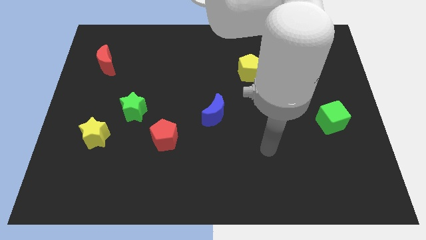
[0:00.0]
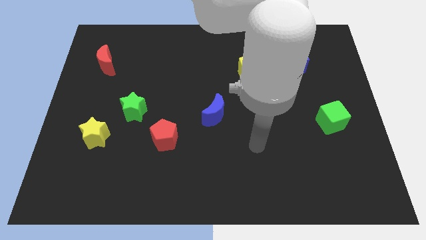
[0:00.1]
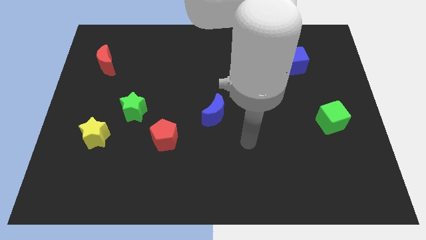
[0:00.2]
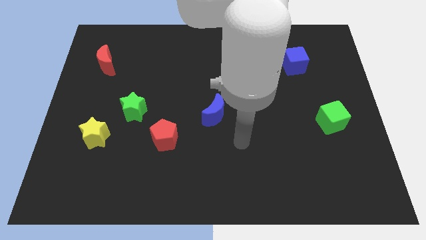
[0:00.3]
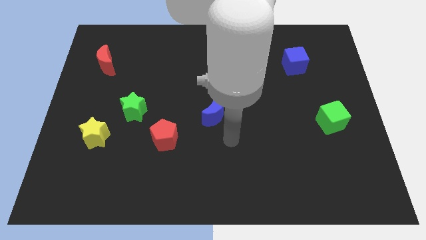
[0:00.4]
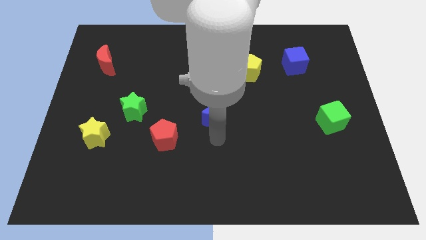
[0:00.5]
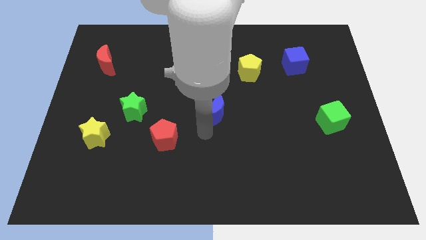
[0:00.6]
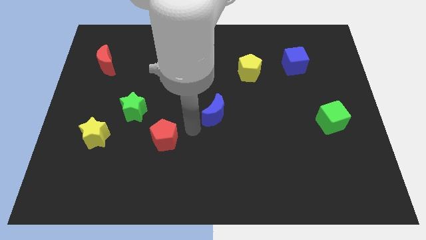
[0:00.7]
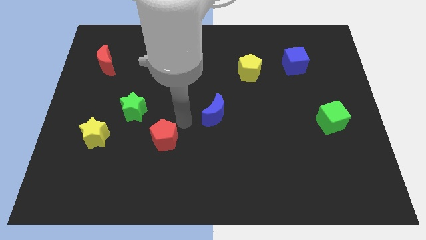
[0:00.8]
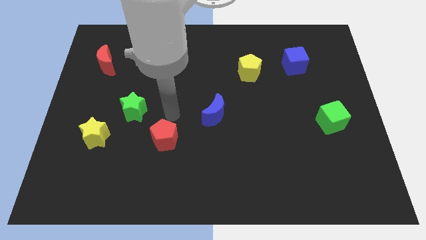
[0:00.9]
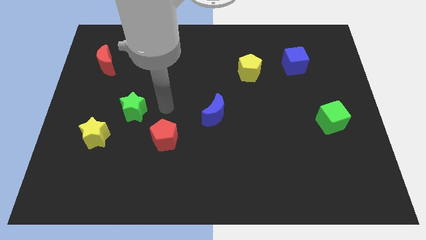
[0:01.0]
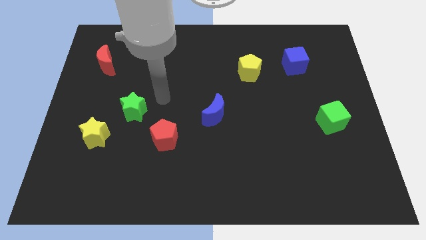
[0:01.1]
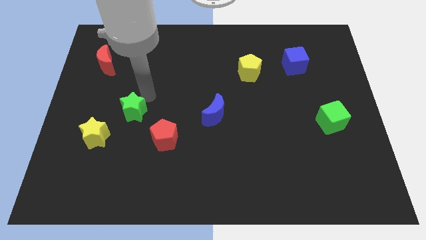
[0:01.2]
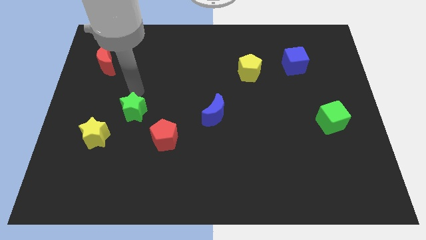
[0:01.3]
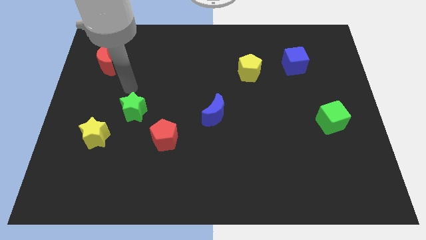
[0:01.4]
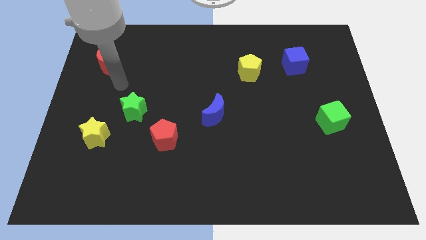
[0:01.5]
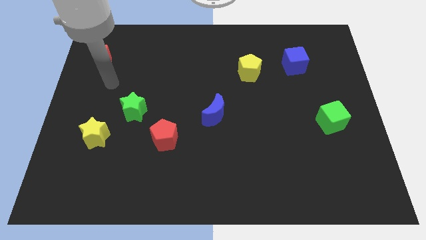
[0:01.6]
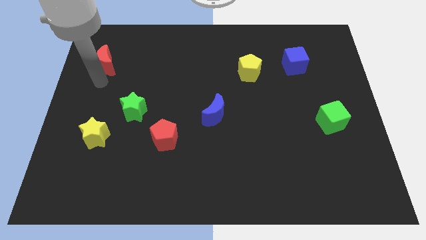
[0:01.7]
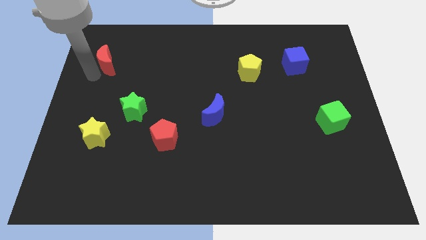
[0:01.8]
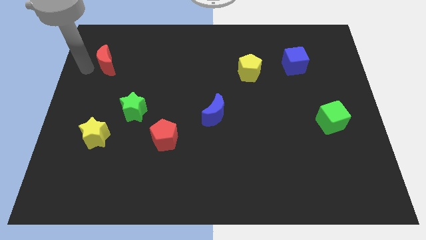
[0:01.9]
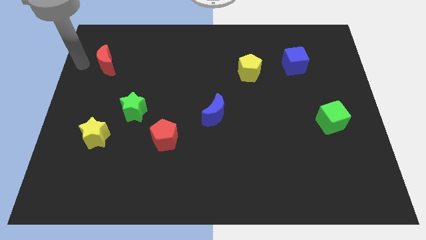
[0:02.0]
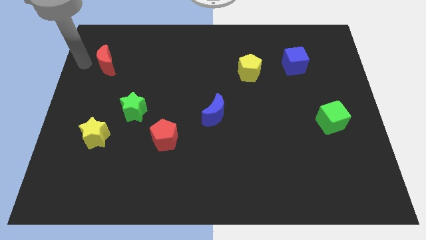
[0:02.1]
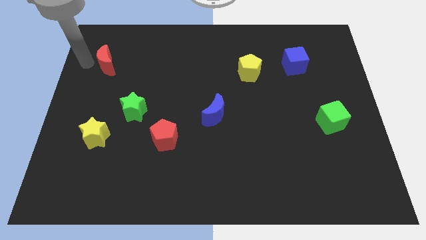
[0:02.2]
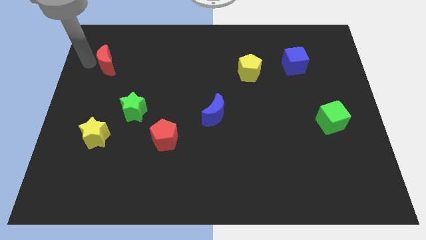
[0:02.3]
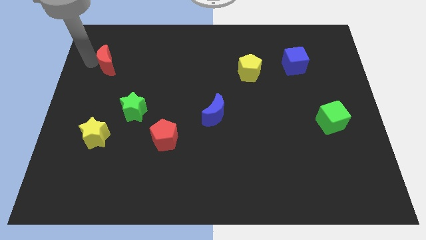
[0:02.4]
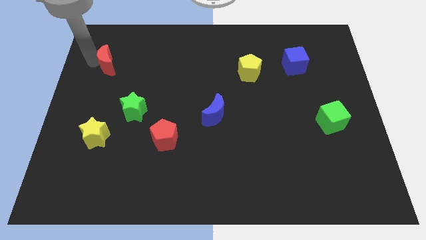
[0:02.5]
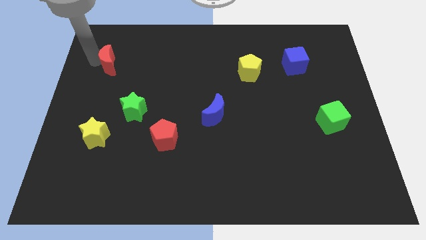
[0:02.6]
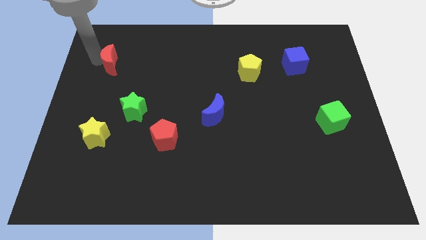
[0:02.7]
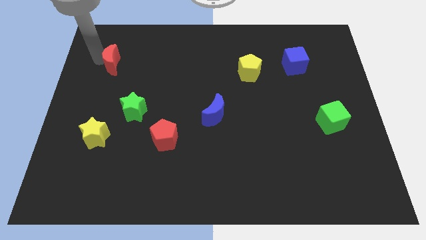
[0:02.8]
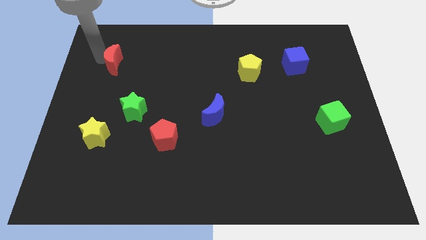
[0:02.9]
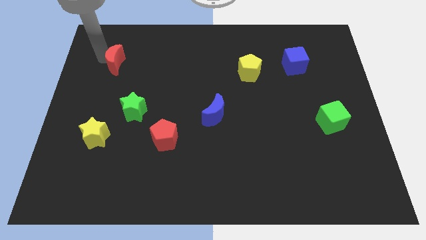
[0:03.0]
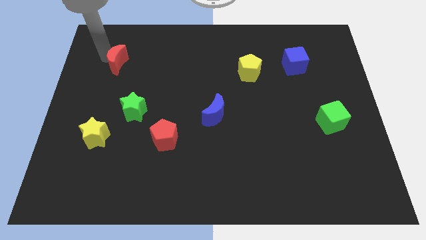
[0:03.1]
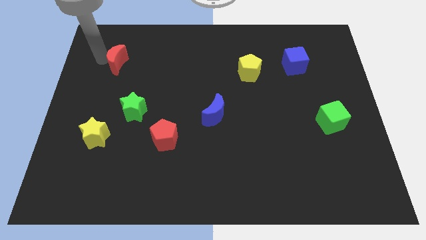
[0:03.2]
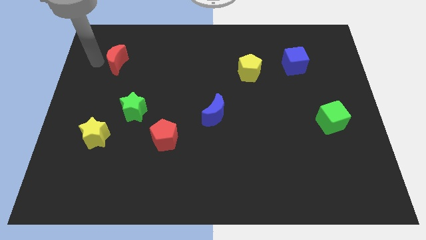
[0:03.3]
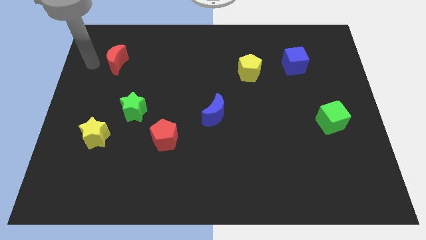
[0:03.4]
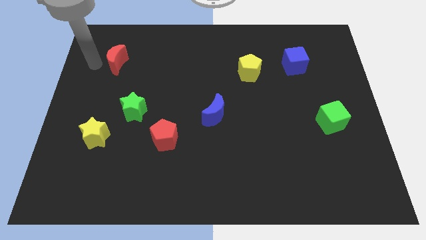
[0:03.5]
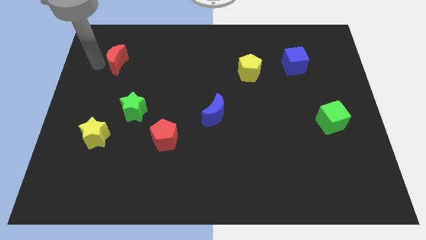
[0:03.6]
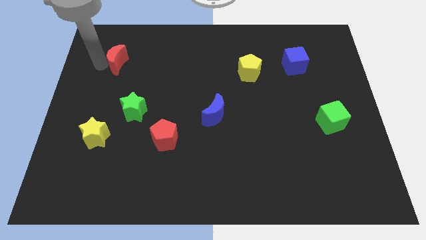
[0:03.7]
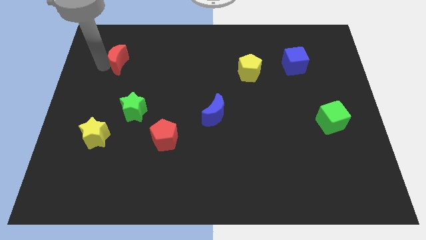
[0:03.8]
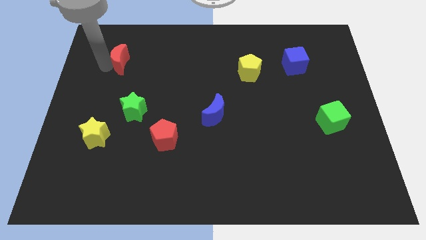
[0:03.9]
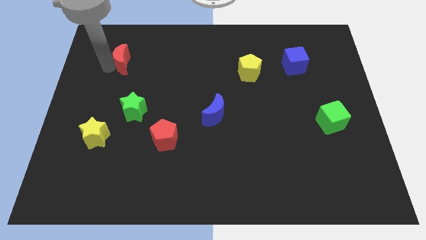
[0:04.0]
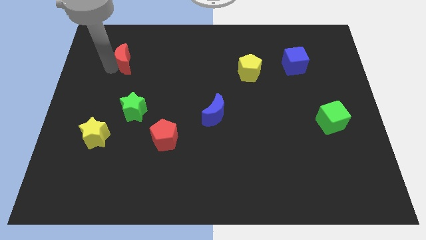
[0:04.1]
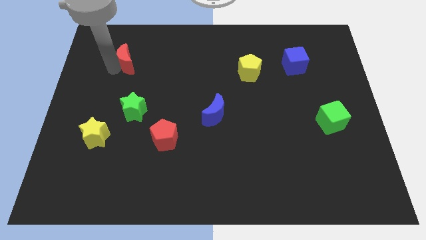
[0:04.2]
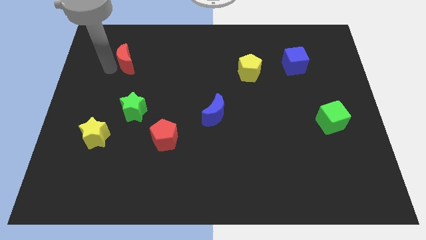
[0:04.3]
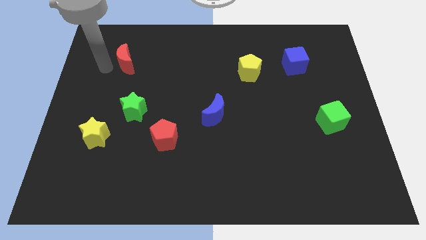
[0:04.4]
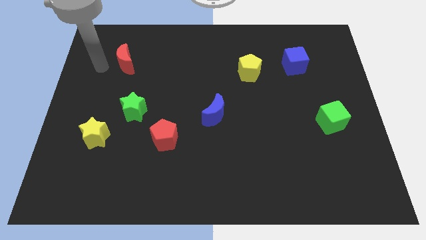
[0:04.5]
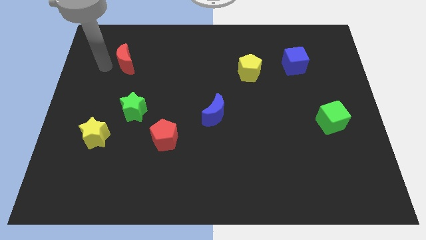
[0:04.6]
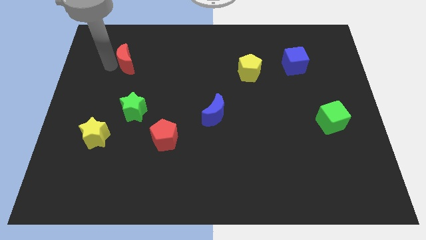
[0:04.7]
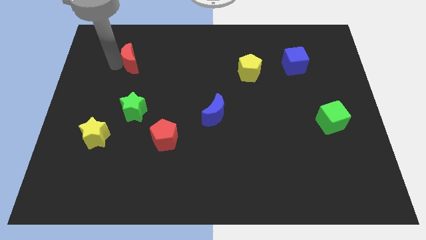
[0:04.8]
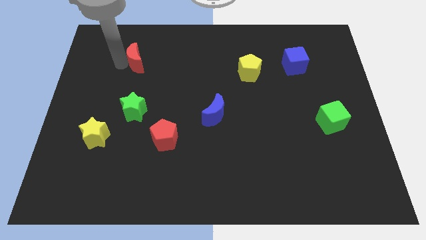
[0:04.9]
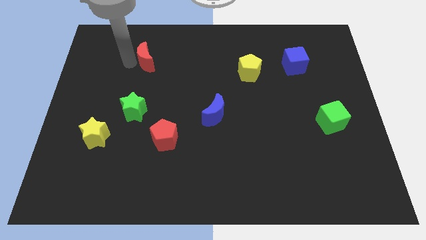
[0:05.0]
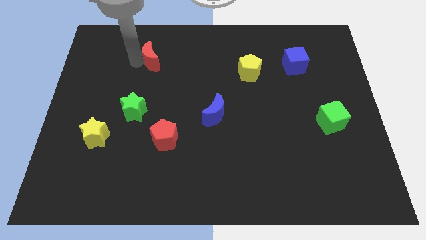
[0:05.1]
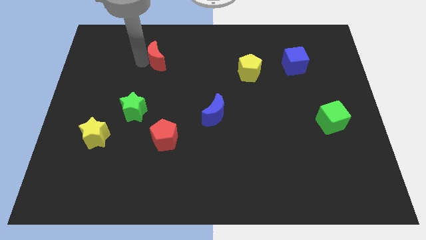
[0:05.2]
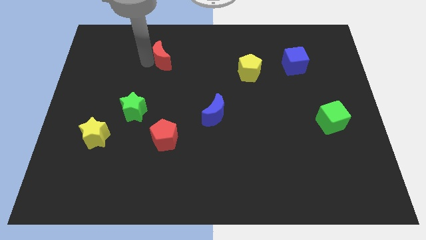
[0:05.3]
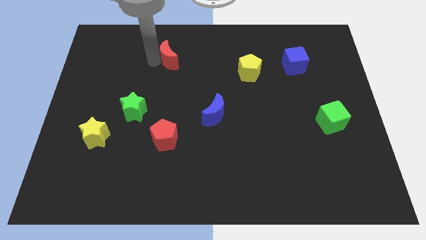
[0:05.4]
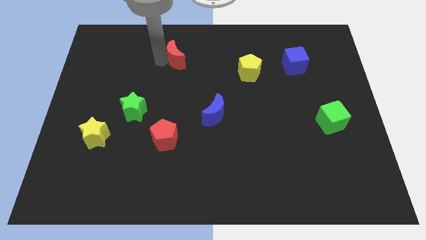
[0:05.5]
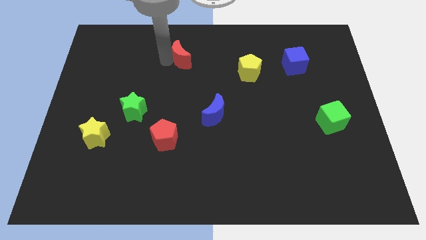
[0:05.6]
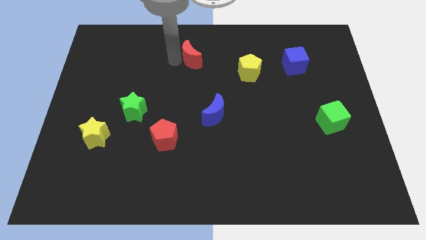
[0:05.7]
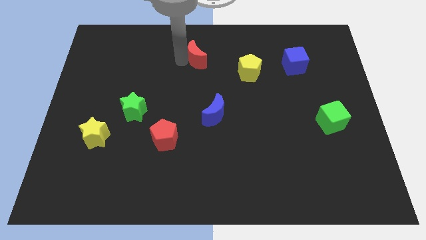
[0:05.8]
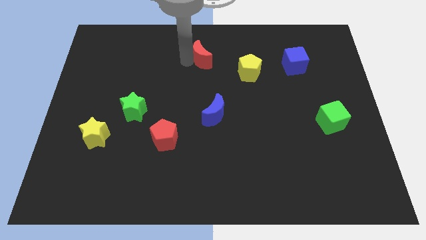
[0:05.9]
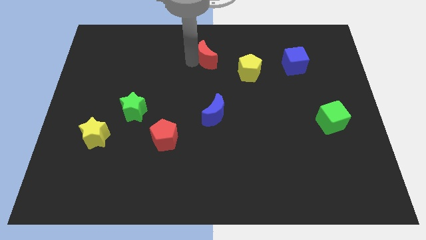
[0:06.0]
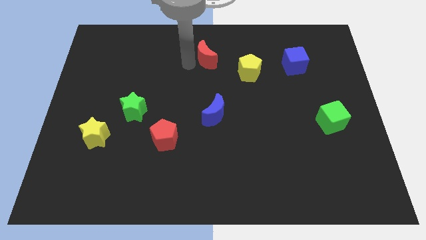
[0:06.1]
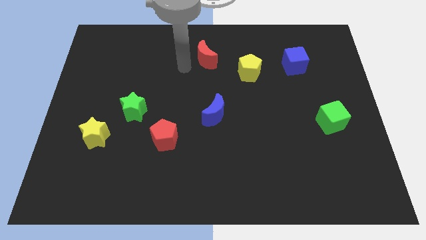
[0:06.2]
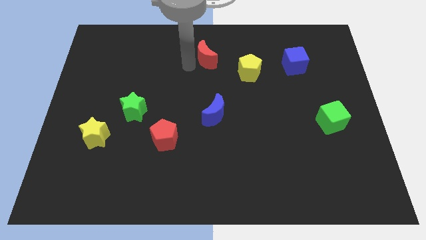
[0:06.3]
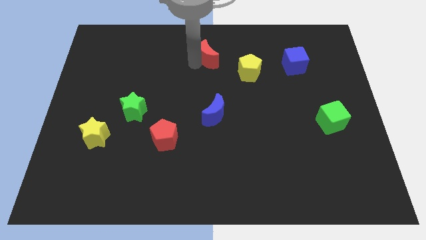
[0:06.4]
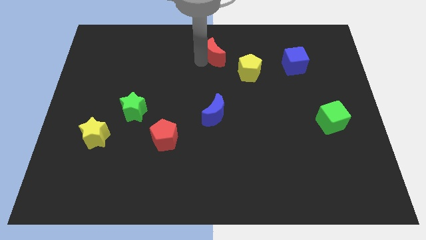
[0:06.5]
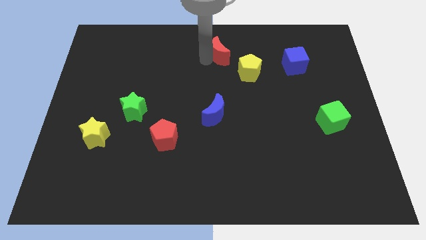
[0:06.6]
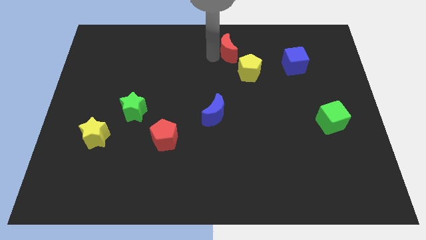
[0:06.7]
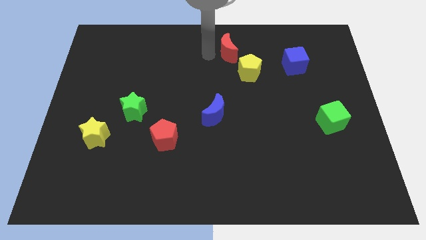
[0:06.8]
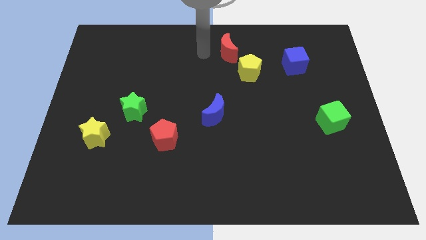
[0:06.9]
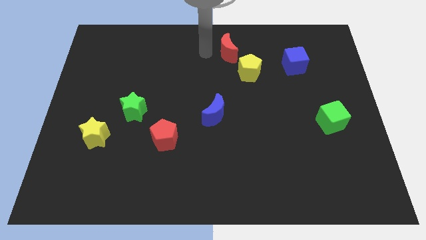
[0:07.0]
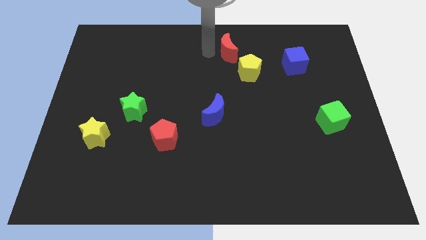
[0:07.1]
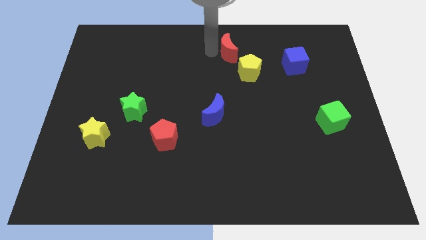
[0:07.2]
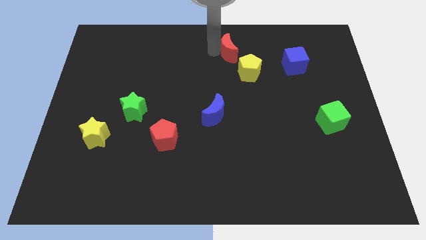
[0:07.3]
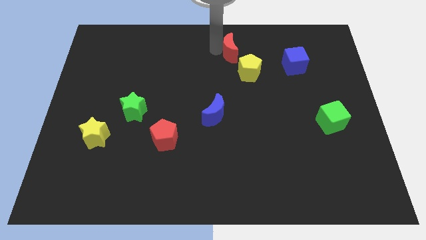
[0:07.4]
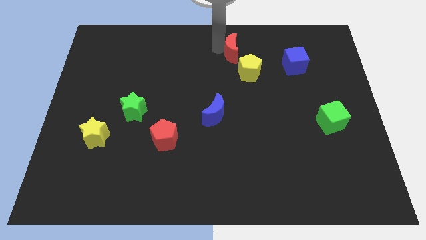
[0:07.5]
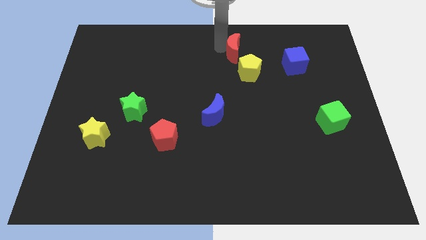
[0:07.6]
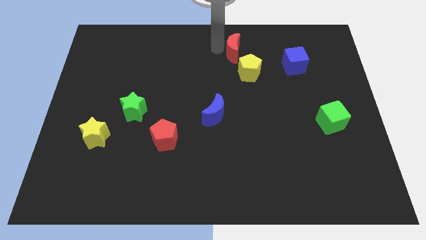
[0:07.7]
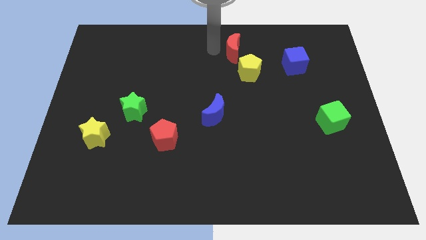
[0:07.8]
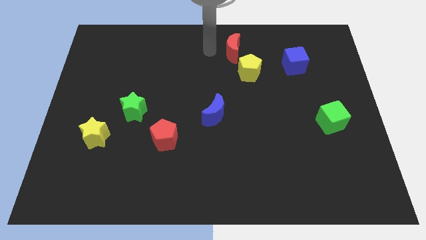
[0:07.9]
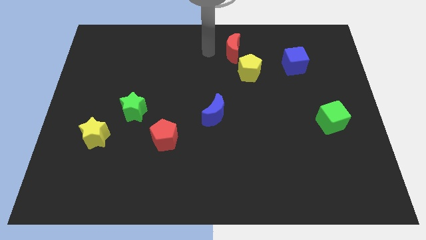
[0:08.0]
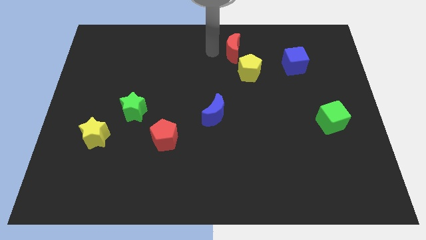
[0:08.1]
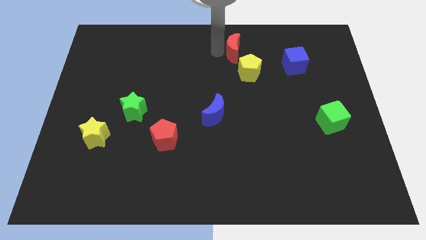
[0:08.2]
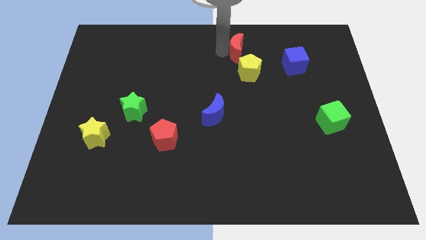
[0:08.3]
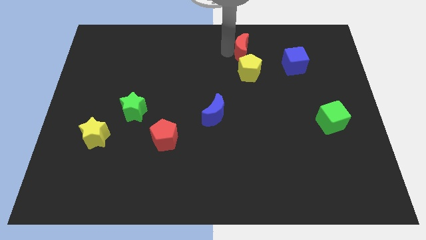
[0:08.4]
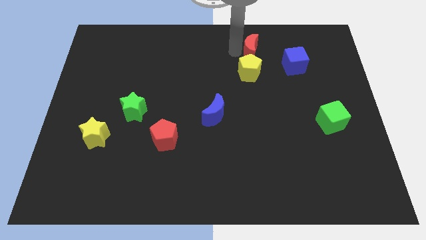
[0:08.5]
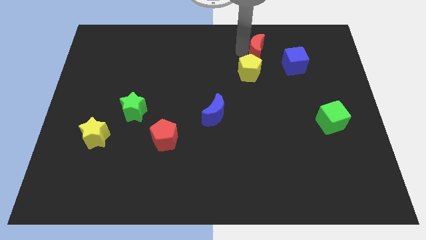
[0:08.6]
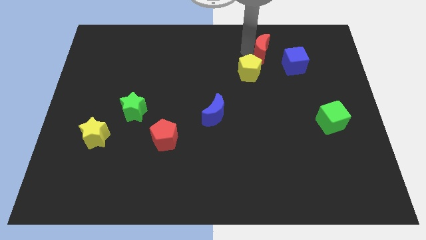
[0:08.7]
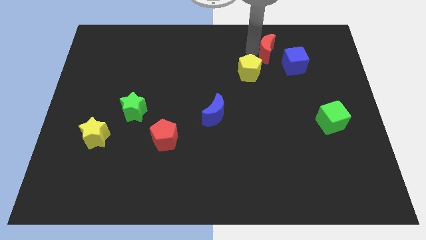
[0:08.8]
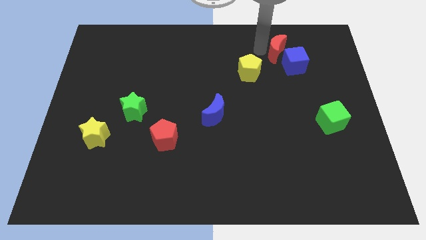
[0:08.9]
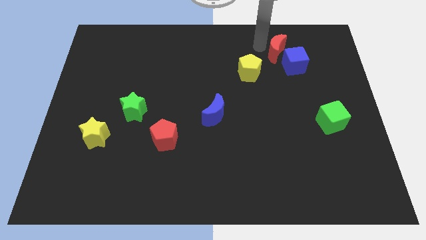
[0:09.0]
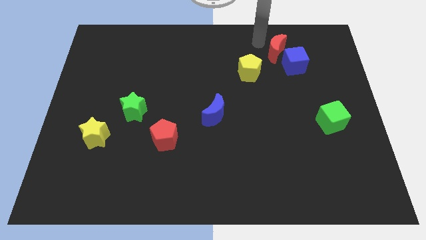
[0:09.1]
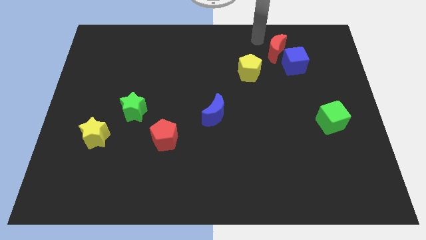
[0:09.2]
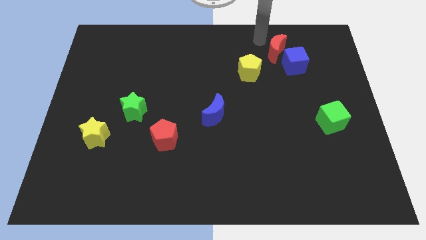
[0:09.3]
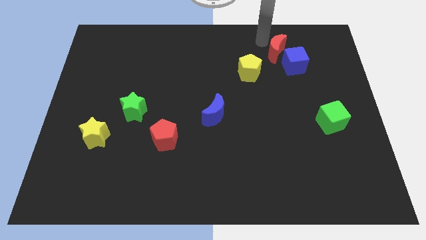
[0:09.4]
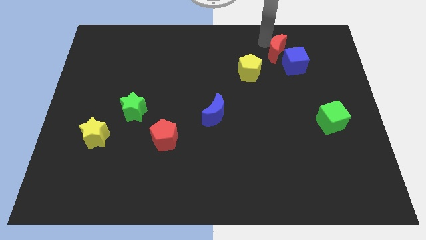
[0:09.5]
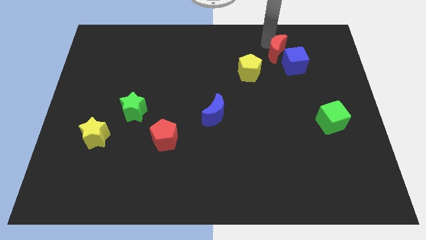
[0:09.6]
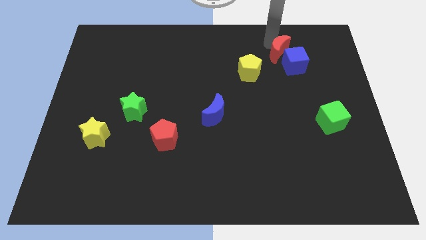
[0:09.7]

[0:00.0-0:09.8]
move the red moon to the blue cube
